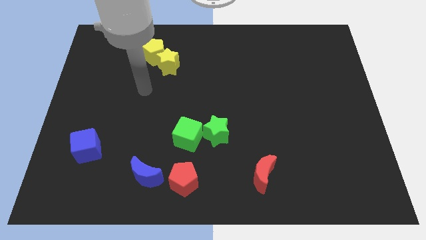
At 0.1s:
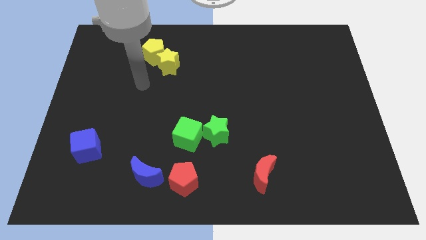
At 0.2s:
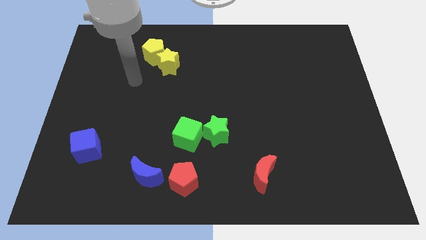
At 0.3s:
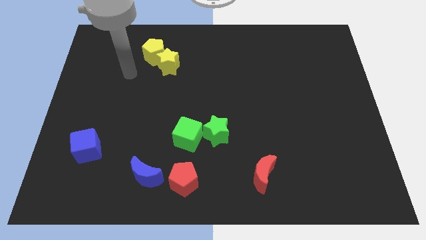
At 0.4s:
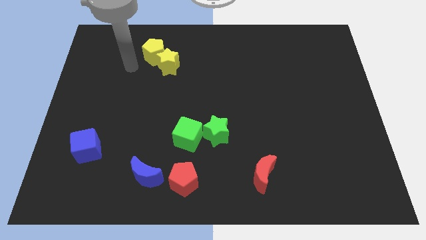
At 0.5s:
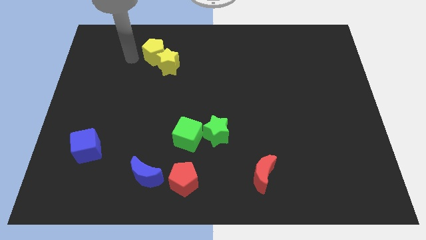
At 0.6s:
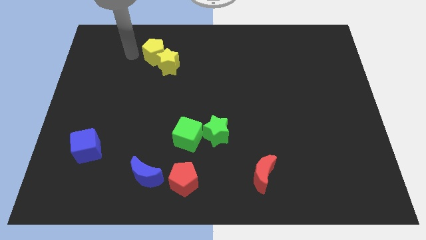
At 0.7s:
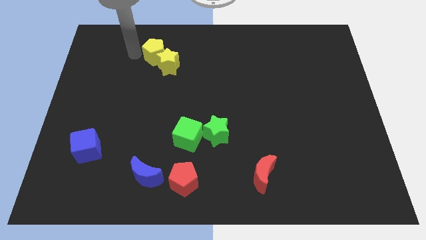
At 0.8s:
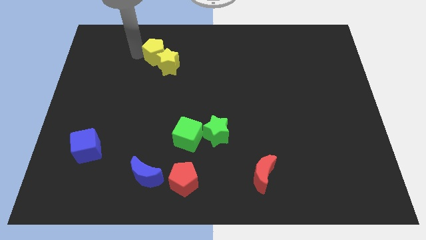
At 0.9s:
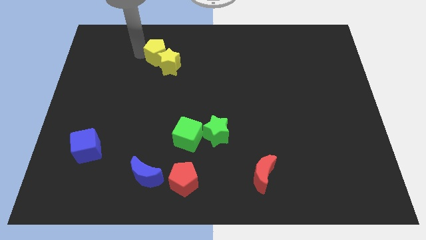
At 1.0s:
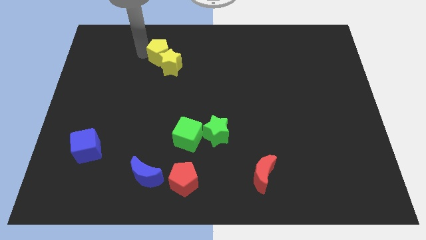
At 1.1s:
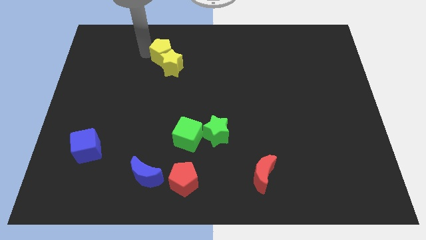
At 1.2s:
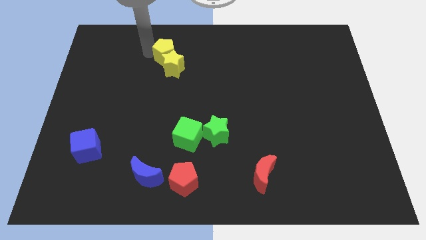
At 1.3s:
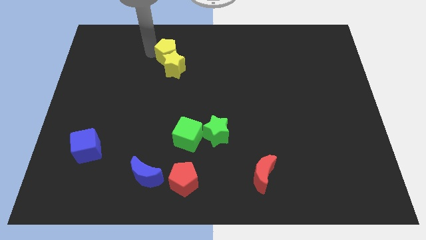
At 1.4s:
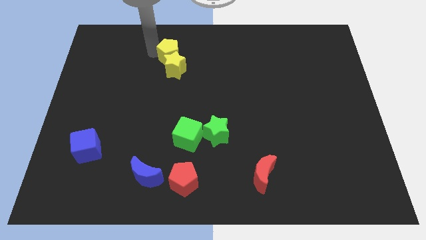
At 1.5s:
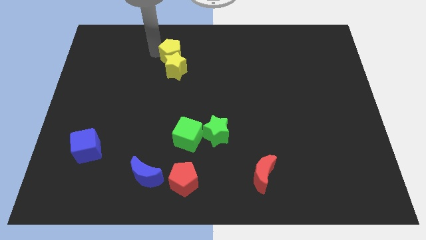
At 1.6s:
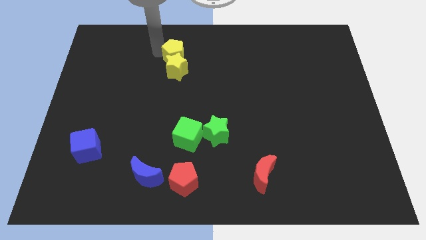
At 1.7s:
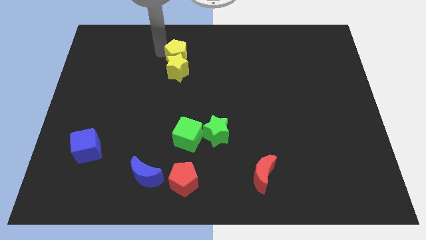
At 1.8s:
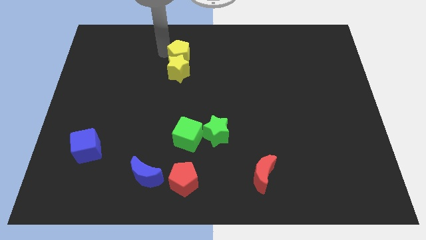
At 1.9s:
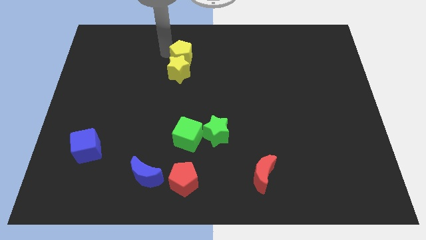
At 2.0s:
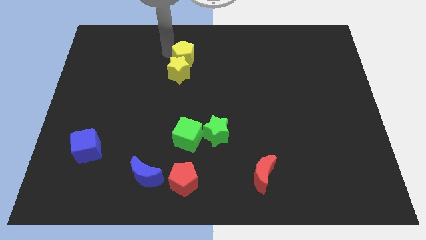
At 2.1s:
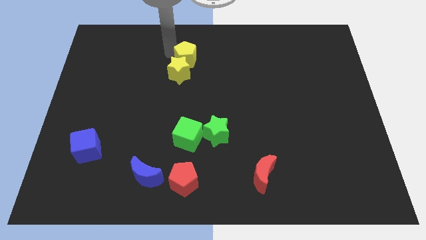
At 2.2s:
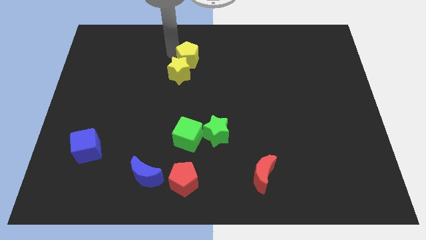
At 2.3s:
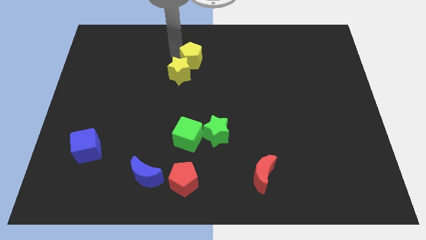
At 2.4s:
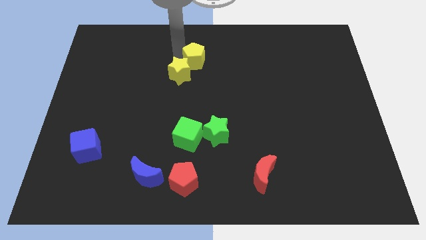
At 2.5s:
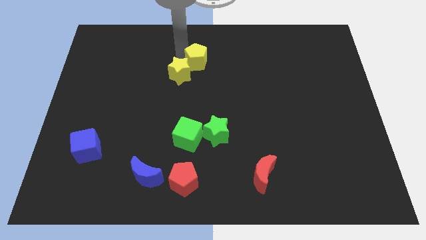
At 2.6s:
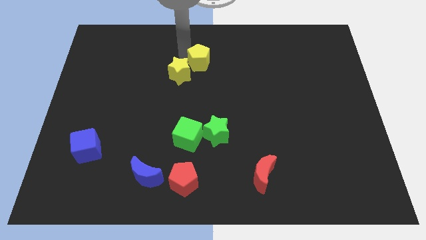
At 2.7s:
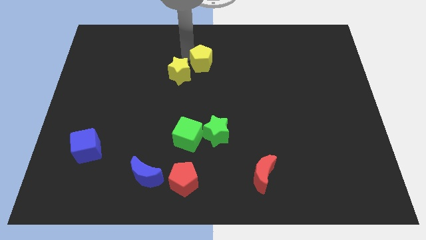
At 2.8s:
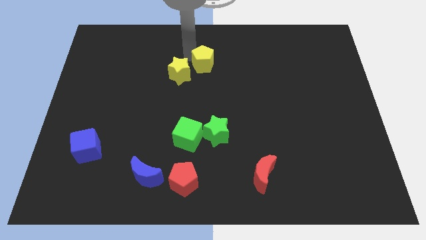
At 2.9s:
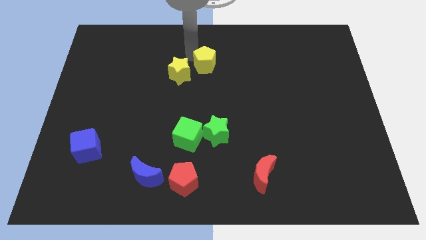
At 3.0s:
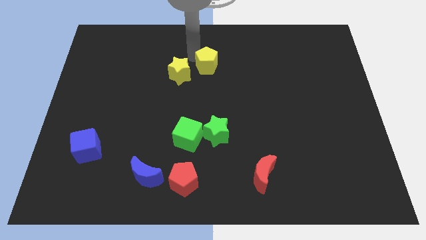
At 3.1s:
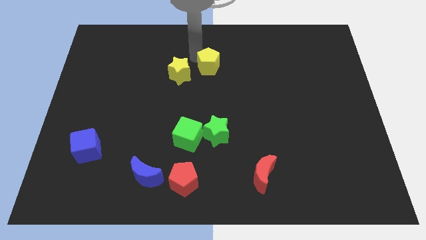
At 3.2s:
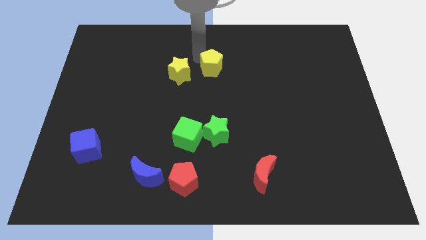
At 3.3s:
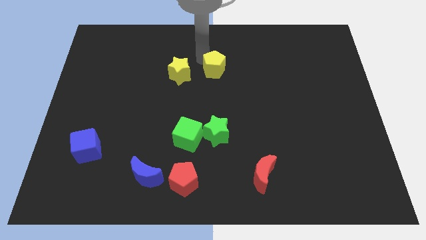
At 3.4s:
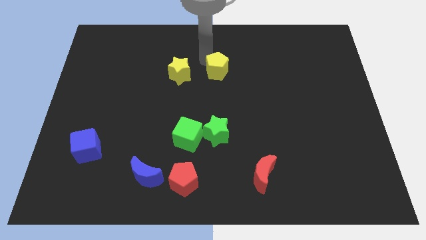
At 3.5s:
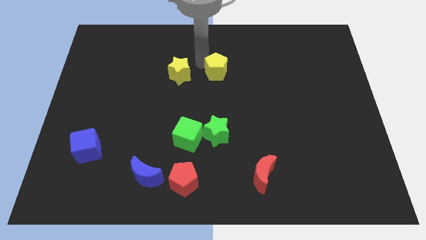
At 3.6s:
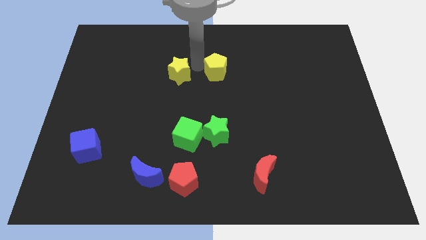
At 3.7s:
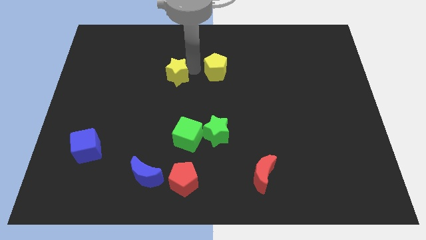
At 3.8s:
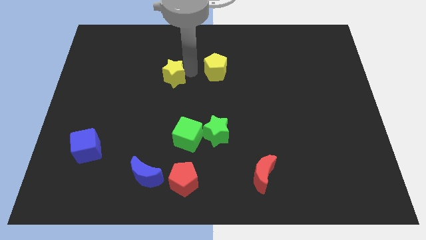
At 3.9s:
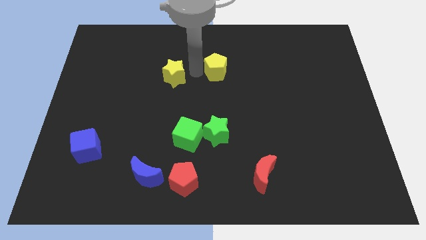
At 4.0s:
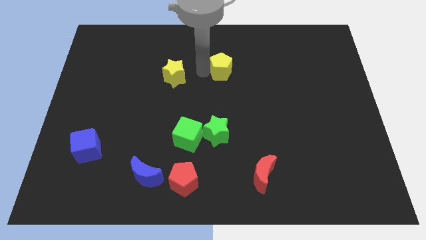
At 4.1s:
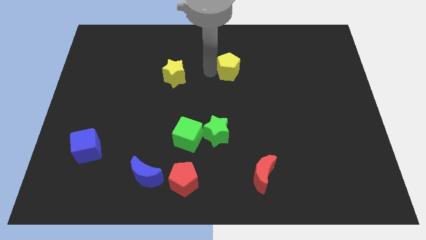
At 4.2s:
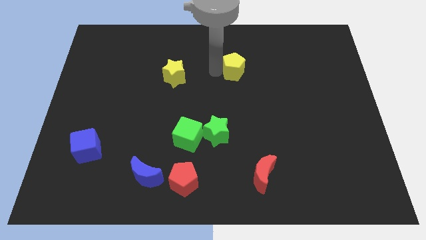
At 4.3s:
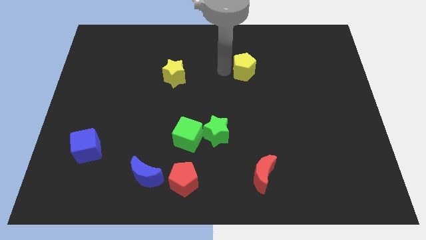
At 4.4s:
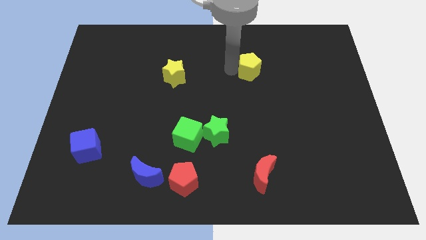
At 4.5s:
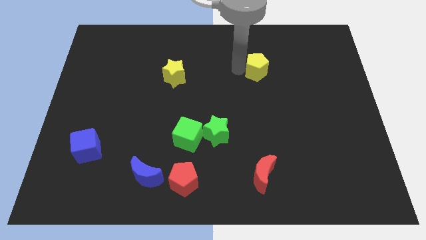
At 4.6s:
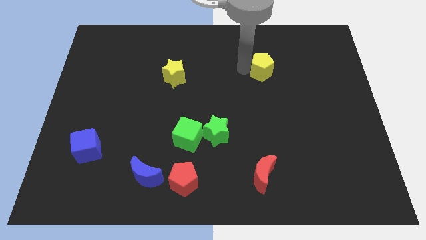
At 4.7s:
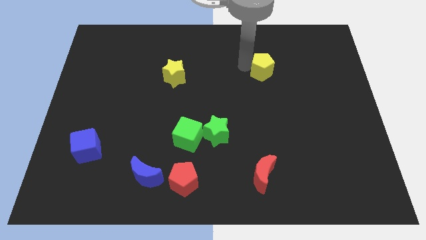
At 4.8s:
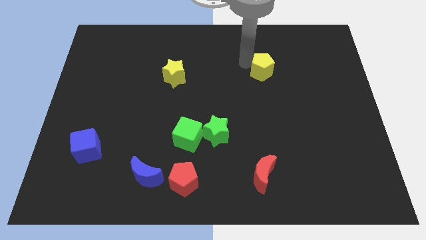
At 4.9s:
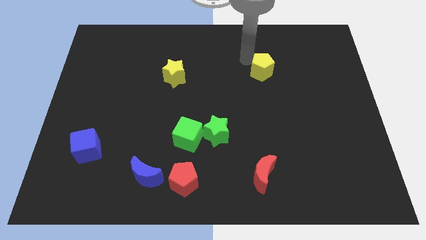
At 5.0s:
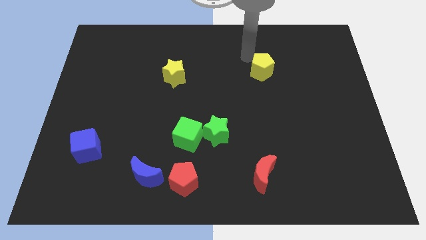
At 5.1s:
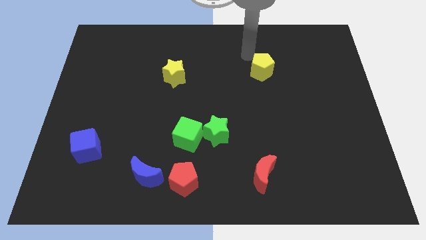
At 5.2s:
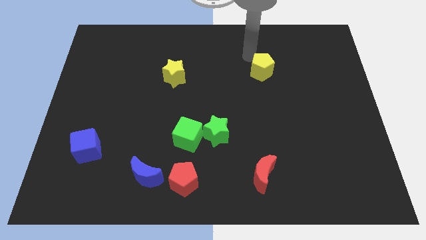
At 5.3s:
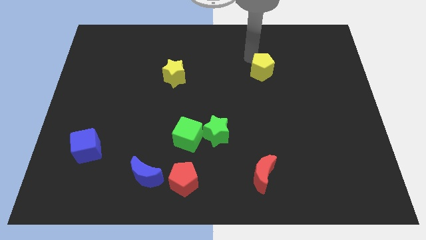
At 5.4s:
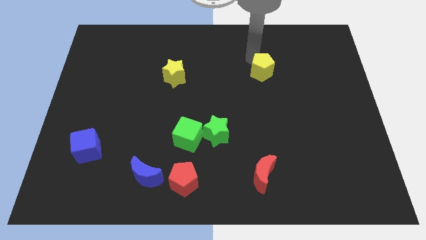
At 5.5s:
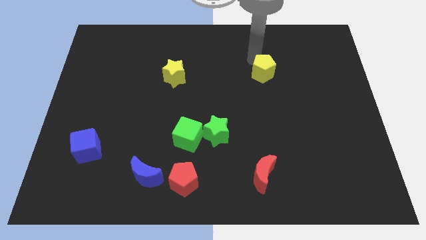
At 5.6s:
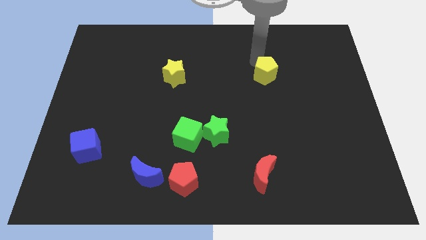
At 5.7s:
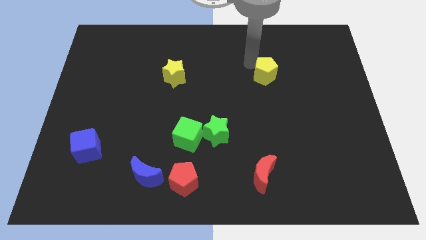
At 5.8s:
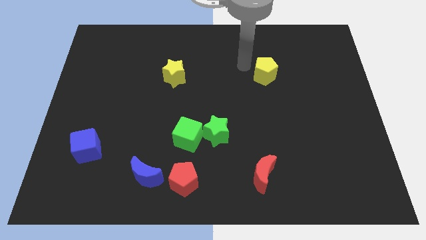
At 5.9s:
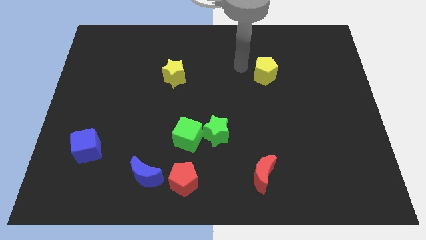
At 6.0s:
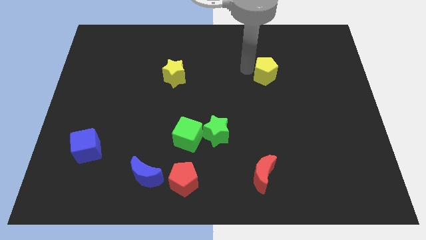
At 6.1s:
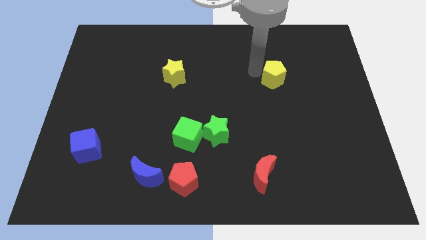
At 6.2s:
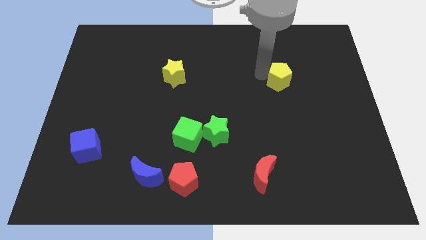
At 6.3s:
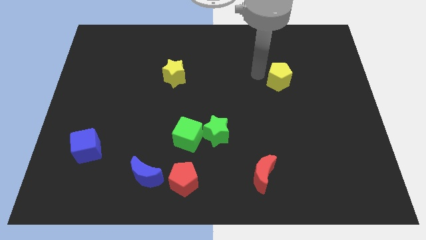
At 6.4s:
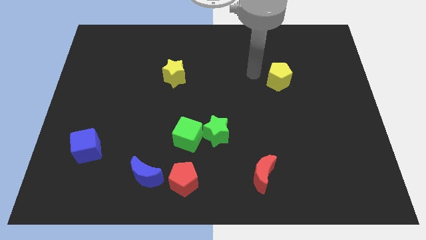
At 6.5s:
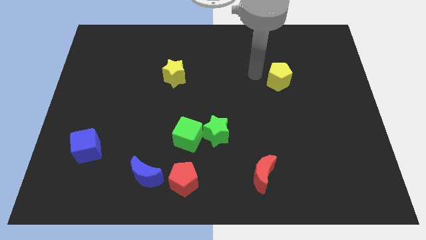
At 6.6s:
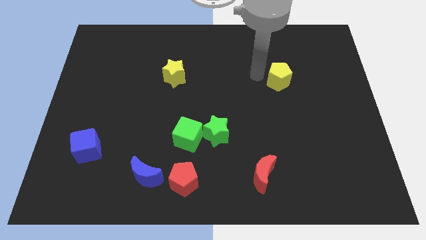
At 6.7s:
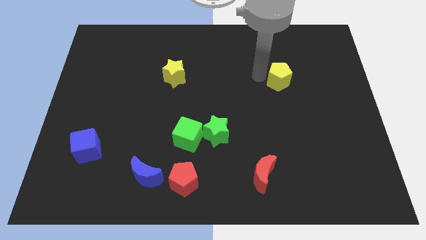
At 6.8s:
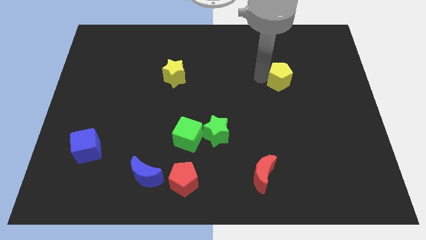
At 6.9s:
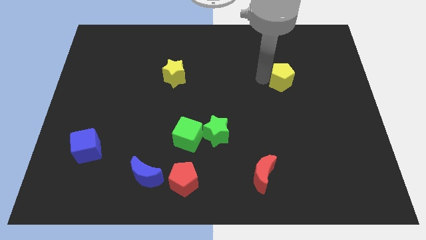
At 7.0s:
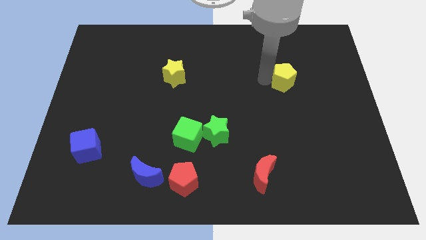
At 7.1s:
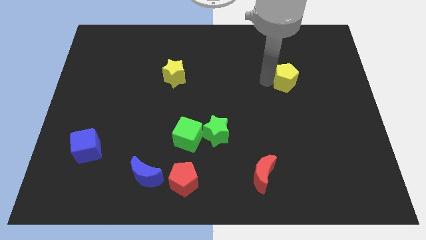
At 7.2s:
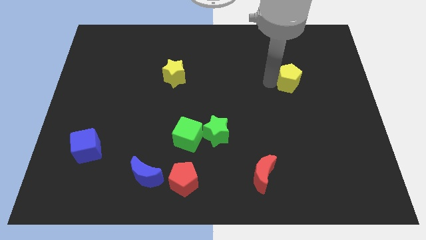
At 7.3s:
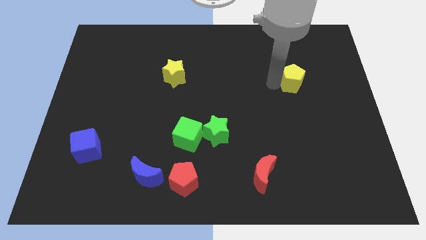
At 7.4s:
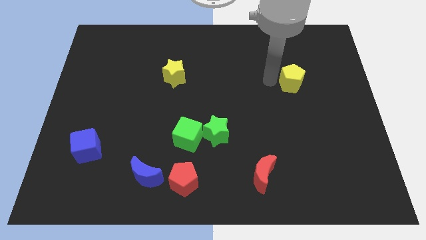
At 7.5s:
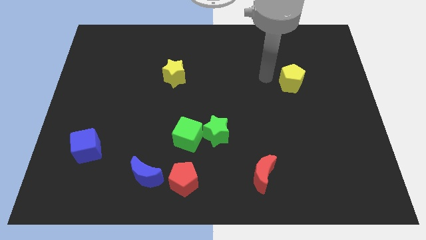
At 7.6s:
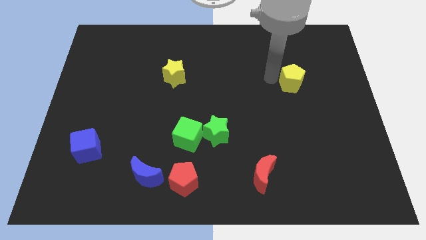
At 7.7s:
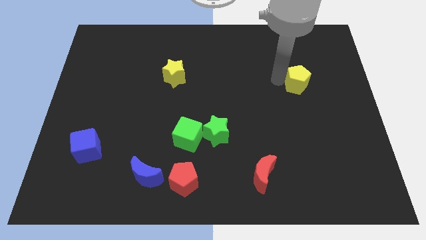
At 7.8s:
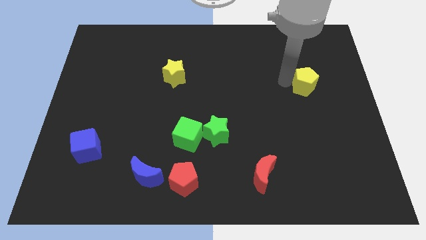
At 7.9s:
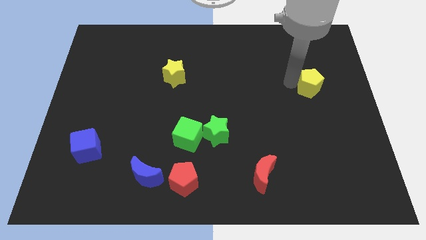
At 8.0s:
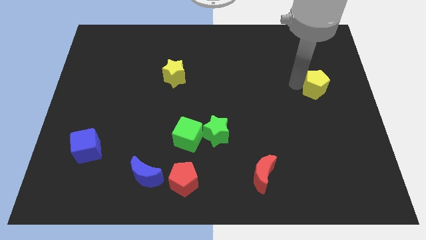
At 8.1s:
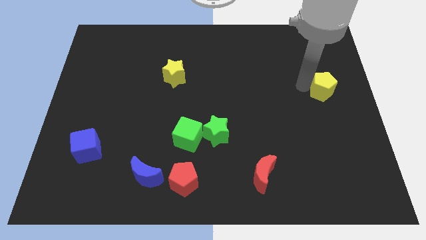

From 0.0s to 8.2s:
push the yellow pentagon to the right side
